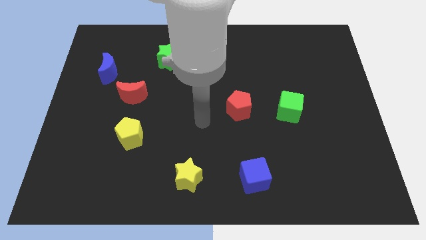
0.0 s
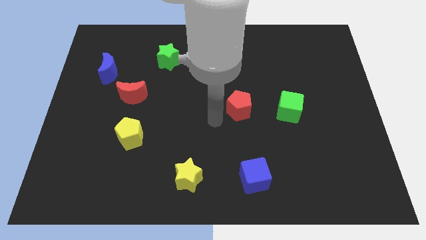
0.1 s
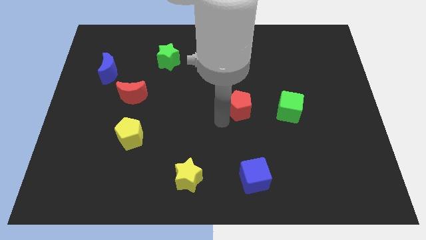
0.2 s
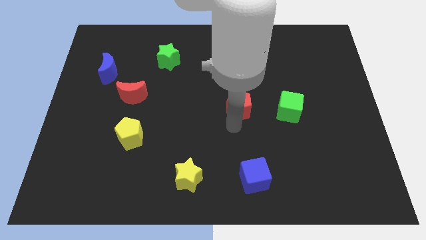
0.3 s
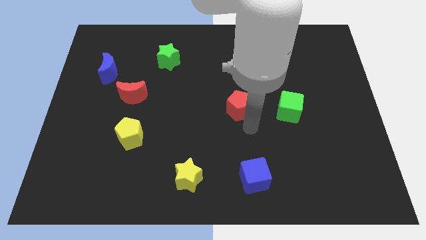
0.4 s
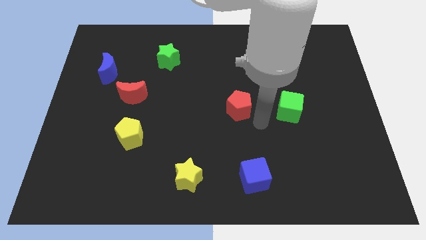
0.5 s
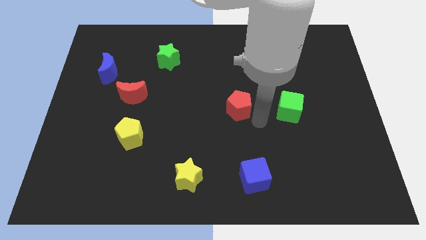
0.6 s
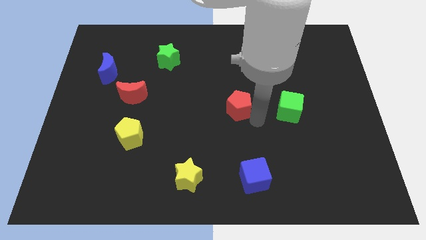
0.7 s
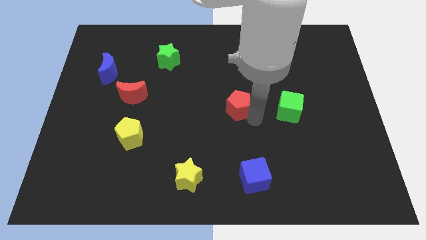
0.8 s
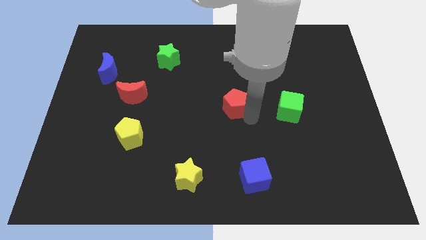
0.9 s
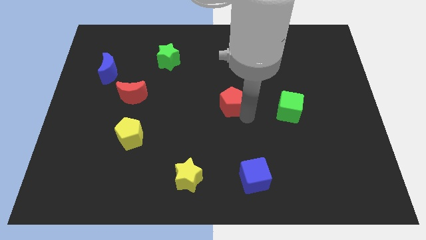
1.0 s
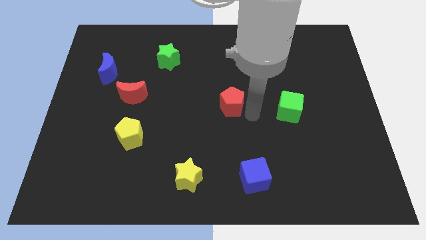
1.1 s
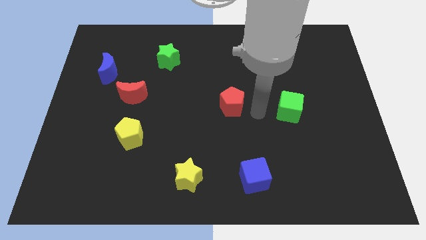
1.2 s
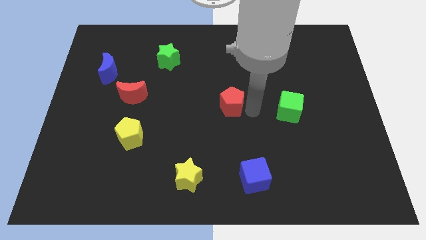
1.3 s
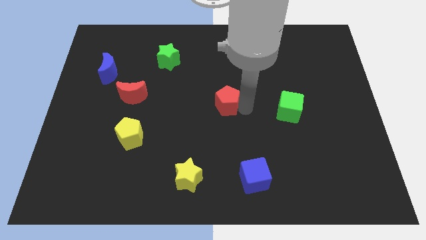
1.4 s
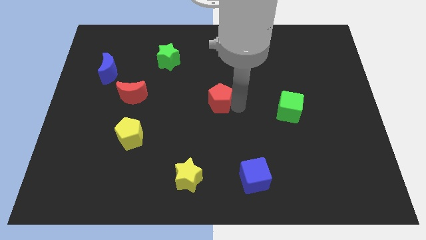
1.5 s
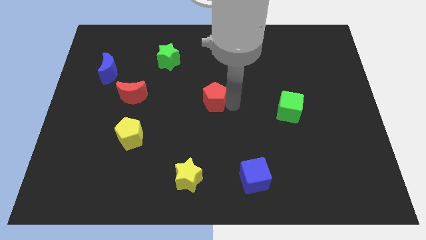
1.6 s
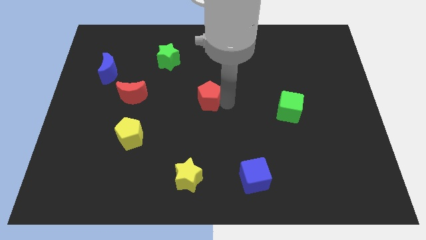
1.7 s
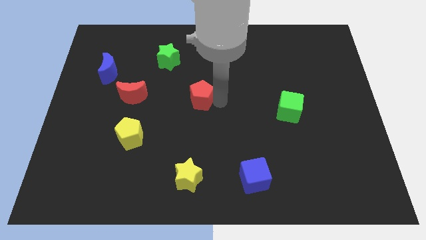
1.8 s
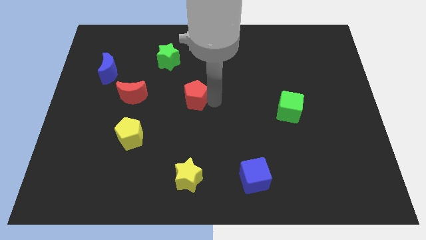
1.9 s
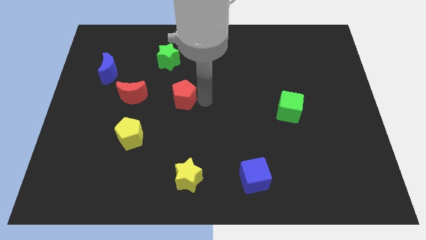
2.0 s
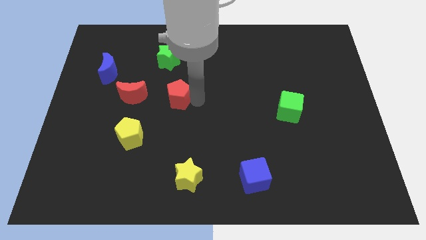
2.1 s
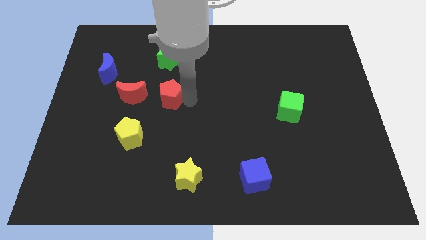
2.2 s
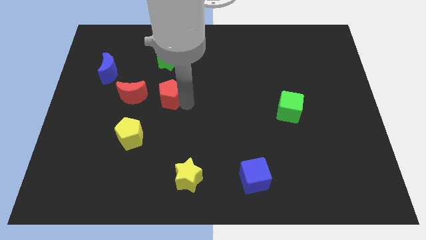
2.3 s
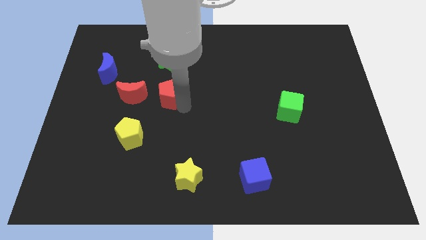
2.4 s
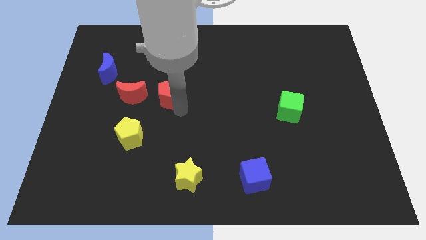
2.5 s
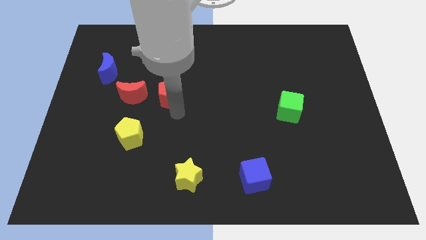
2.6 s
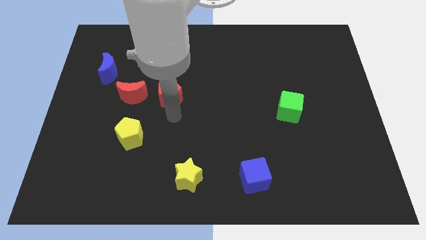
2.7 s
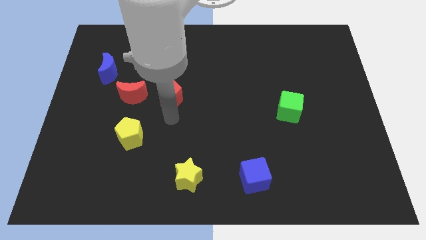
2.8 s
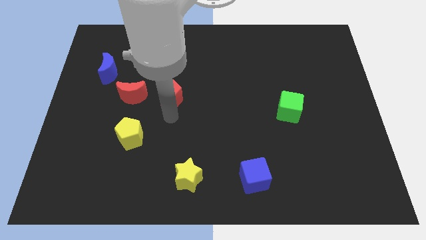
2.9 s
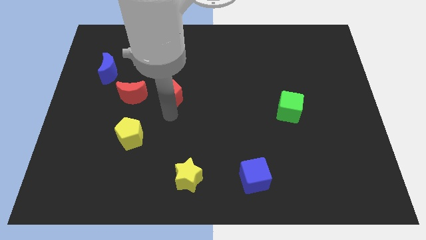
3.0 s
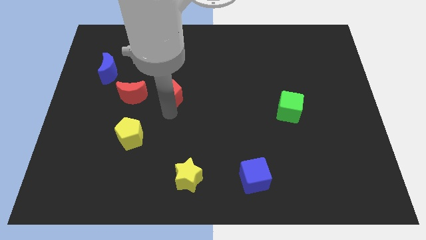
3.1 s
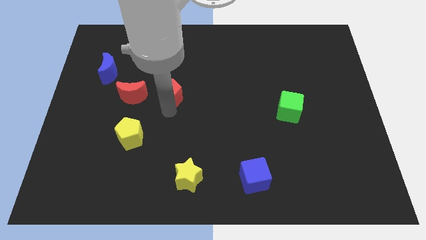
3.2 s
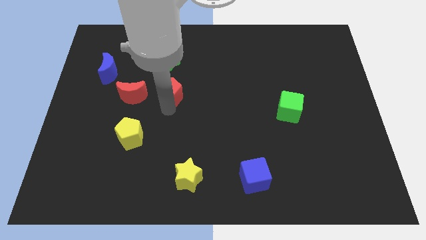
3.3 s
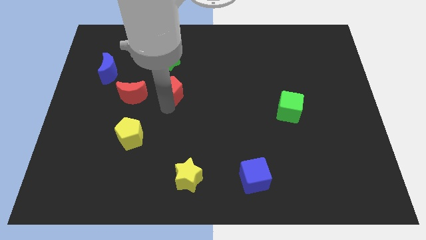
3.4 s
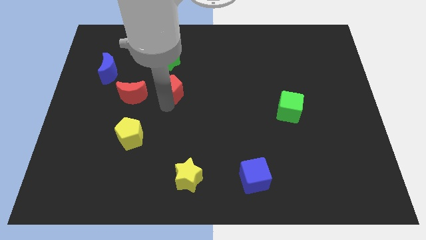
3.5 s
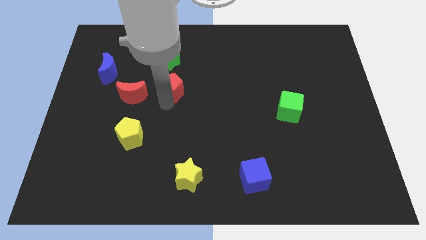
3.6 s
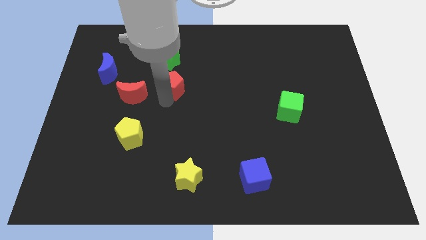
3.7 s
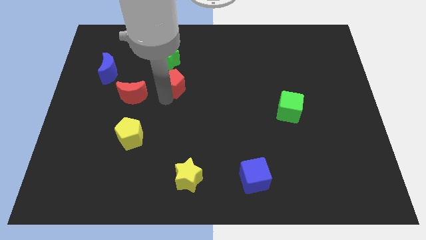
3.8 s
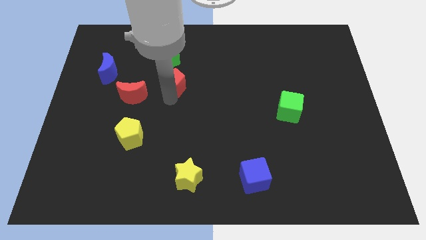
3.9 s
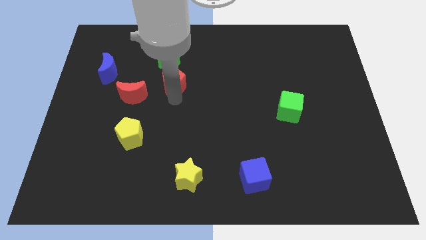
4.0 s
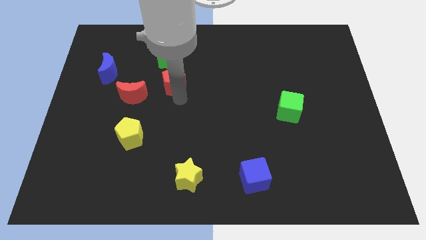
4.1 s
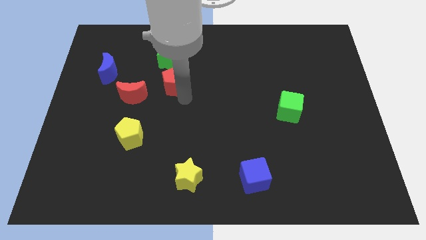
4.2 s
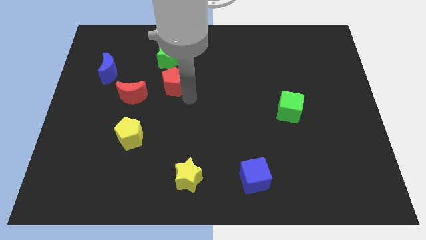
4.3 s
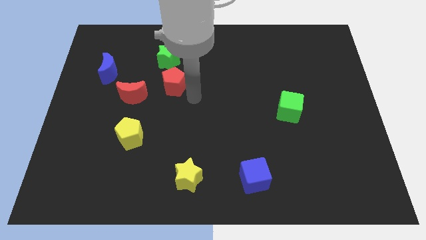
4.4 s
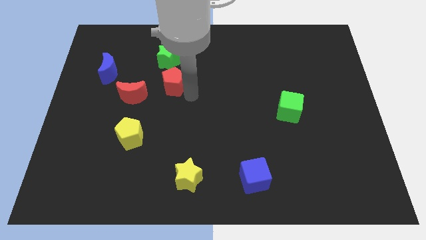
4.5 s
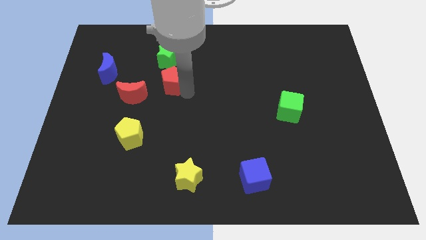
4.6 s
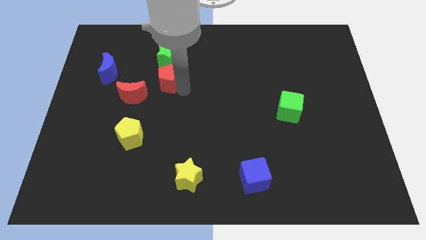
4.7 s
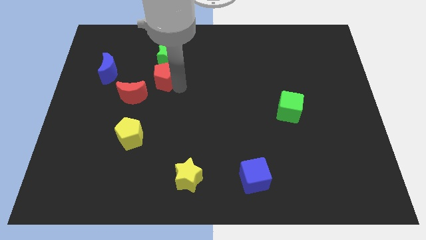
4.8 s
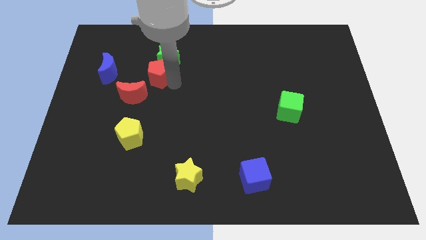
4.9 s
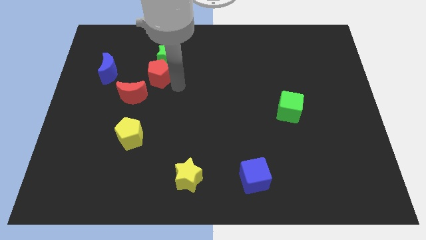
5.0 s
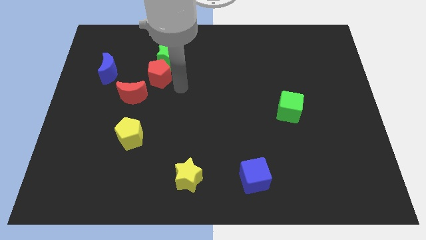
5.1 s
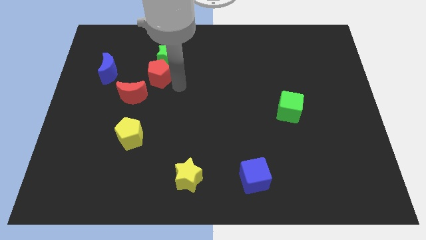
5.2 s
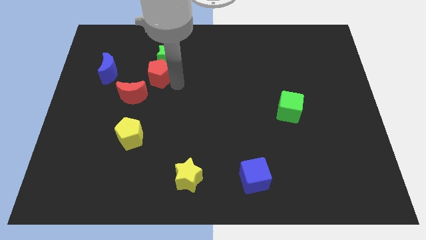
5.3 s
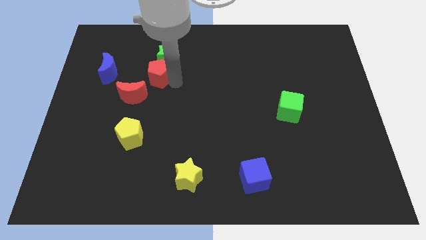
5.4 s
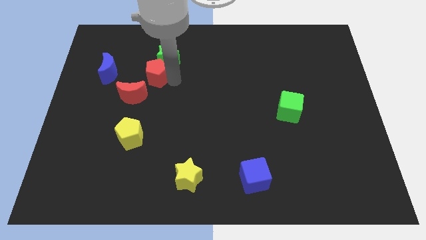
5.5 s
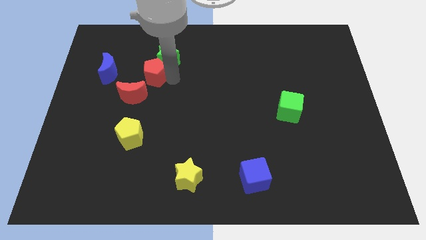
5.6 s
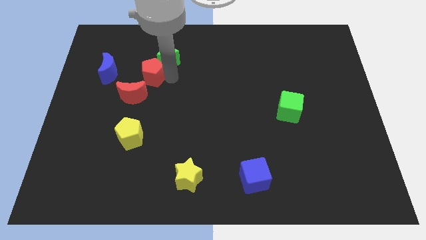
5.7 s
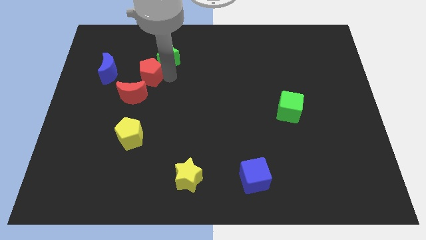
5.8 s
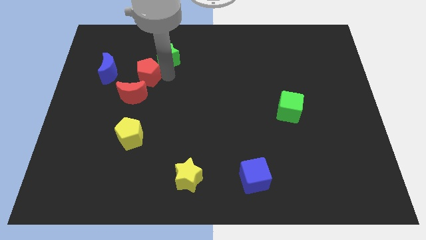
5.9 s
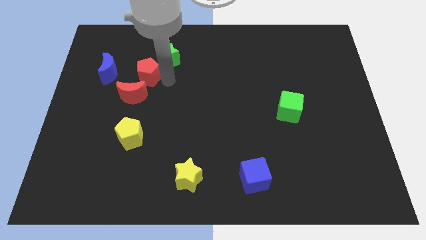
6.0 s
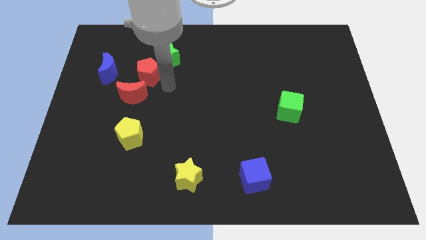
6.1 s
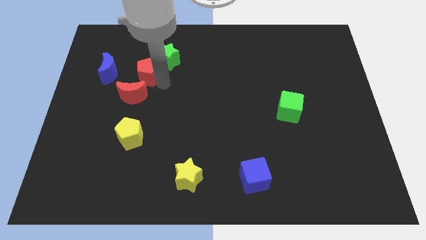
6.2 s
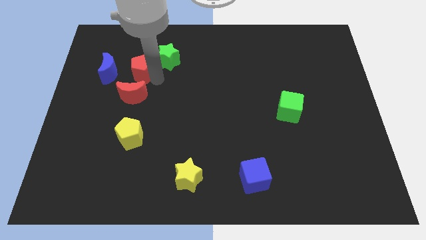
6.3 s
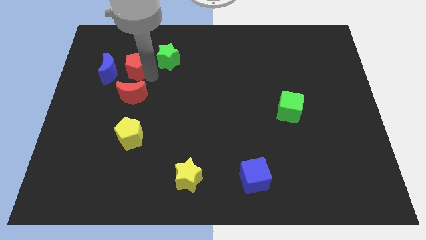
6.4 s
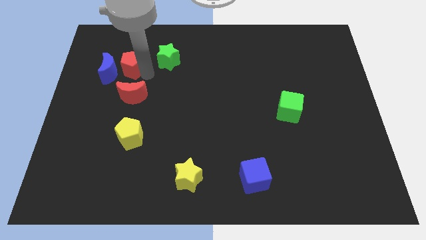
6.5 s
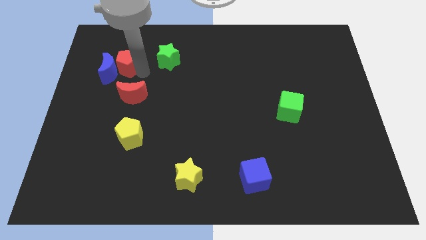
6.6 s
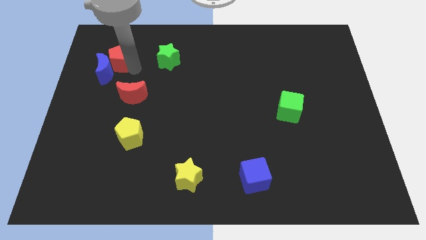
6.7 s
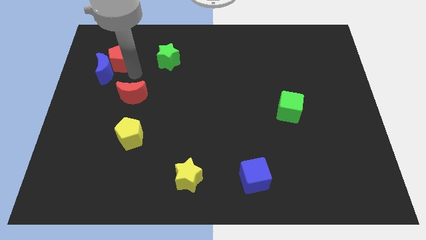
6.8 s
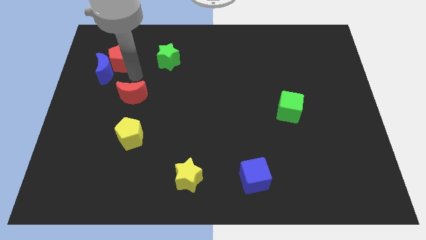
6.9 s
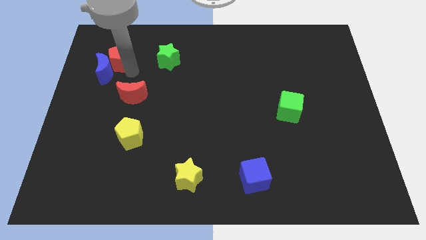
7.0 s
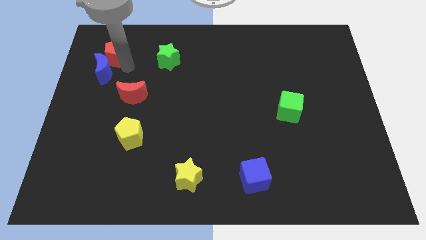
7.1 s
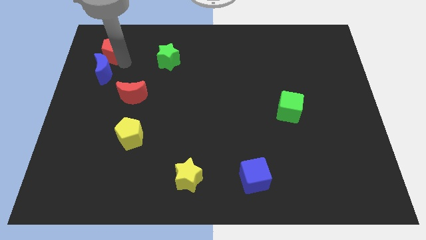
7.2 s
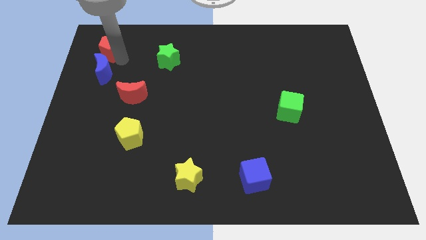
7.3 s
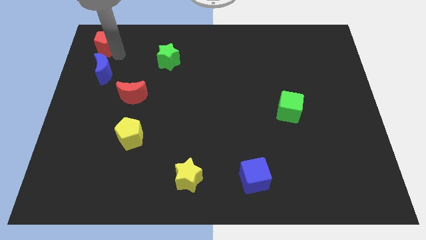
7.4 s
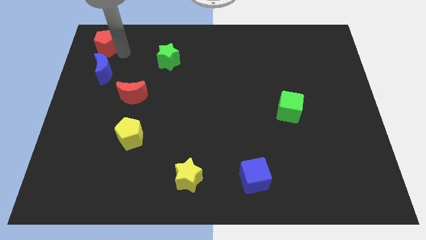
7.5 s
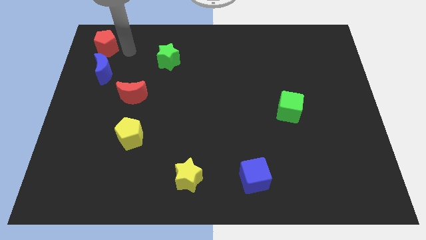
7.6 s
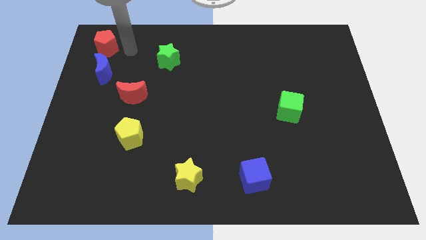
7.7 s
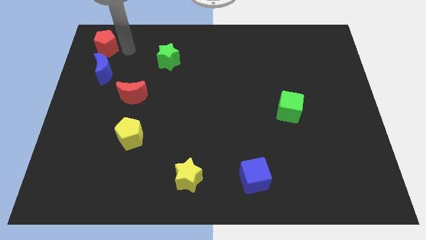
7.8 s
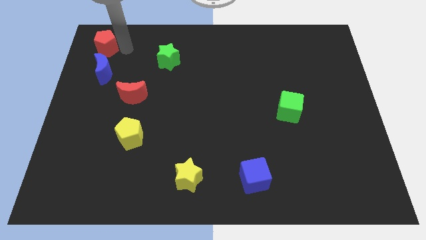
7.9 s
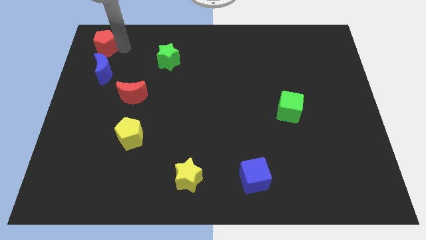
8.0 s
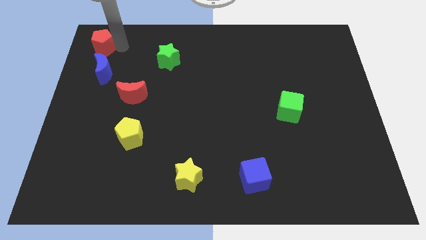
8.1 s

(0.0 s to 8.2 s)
move the red pentagon to the upper left corner
